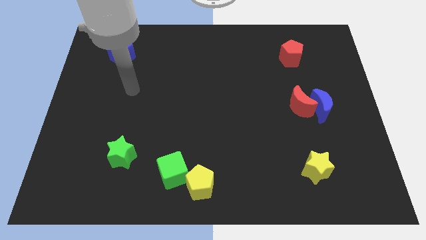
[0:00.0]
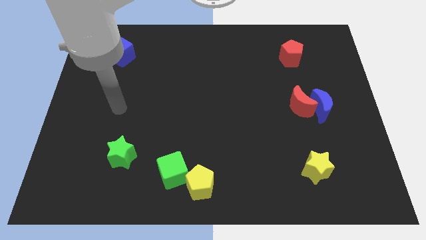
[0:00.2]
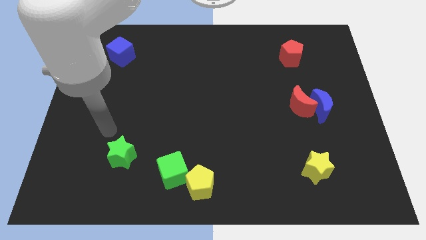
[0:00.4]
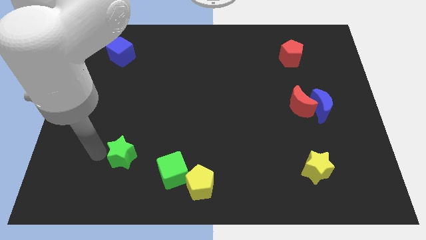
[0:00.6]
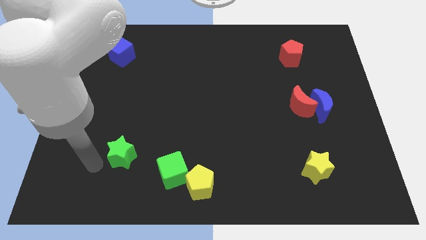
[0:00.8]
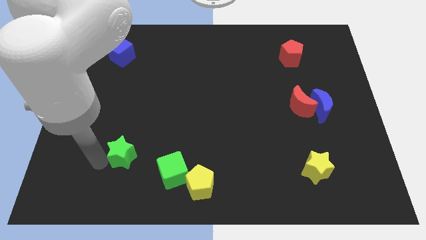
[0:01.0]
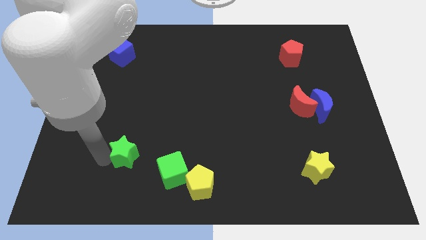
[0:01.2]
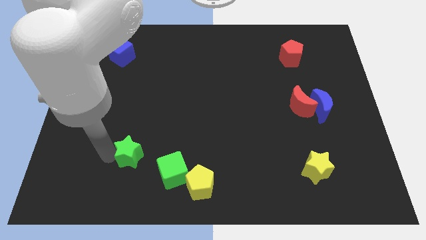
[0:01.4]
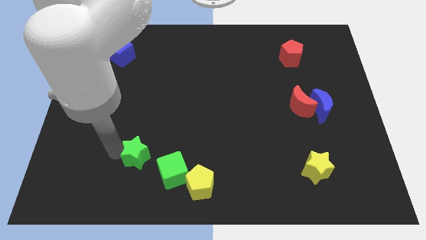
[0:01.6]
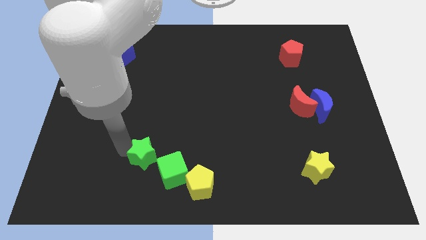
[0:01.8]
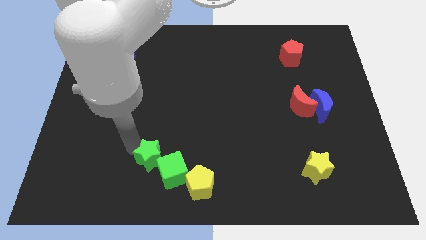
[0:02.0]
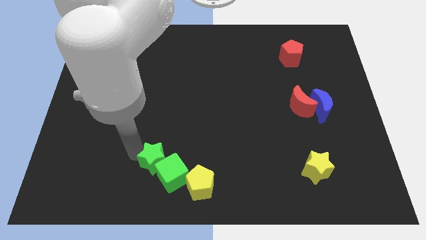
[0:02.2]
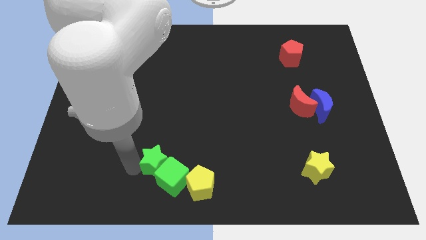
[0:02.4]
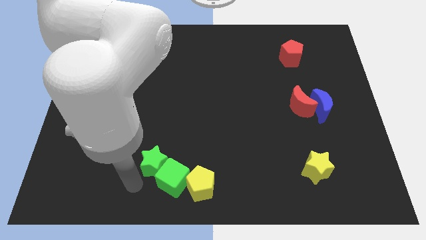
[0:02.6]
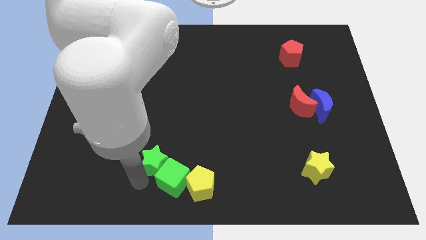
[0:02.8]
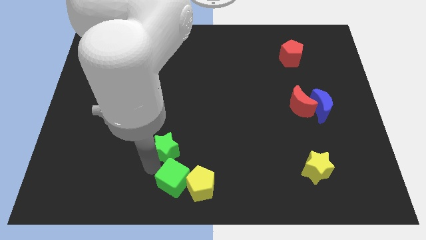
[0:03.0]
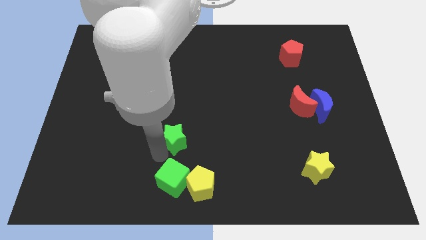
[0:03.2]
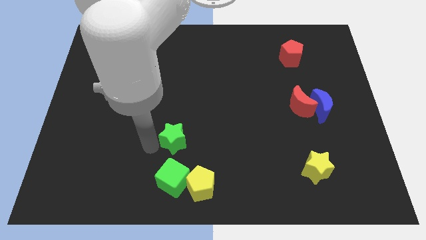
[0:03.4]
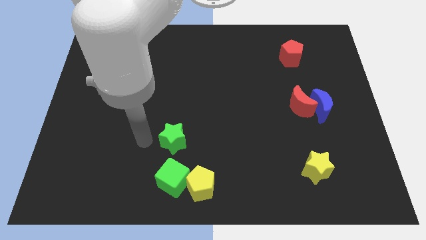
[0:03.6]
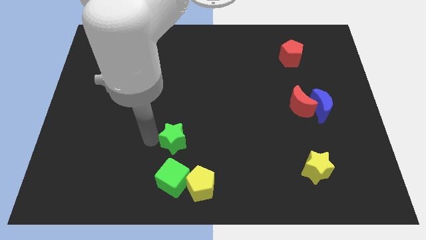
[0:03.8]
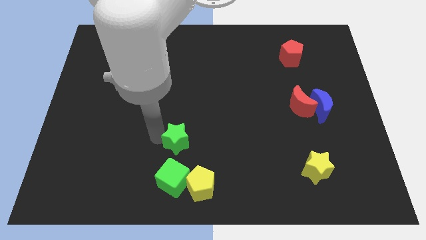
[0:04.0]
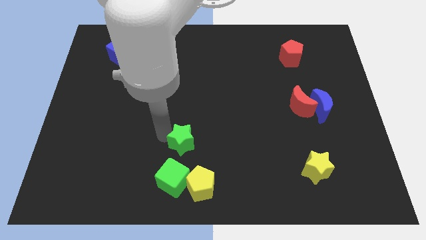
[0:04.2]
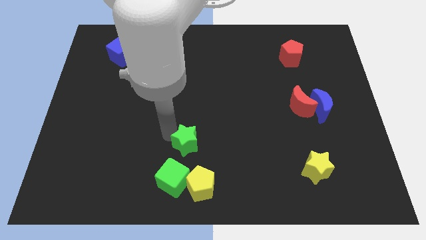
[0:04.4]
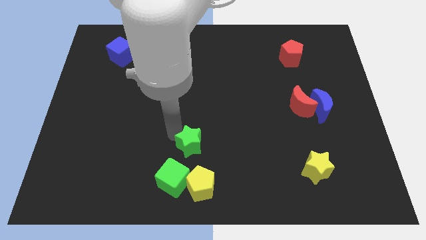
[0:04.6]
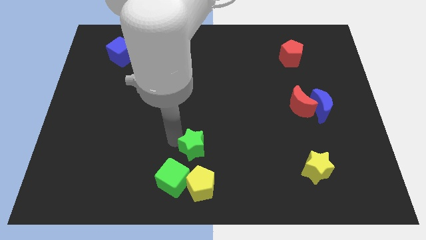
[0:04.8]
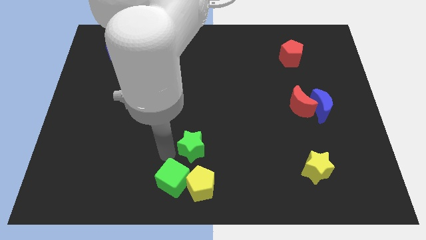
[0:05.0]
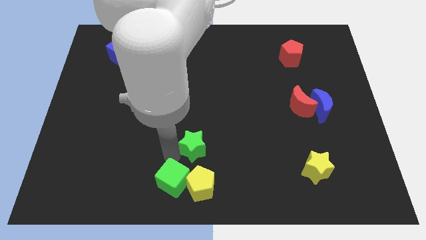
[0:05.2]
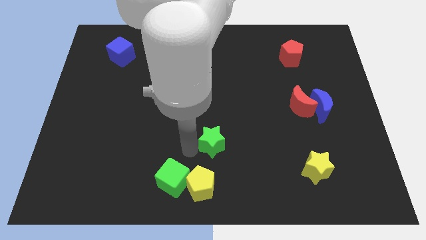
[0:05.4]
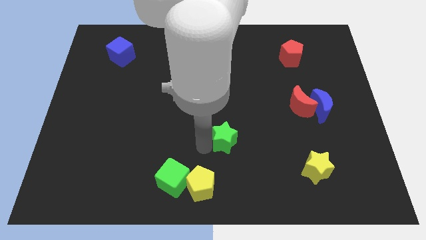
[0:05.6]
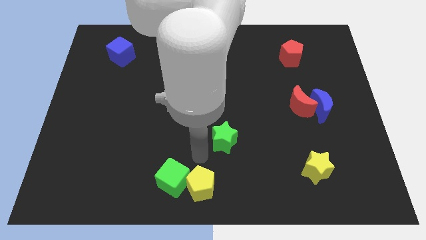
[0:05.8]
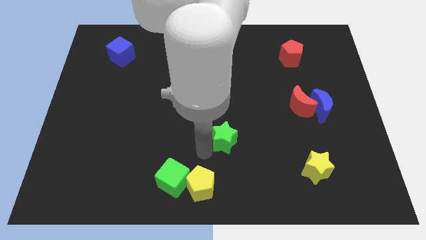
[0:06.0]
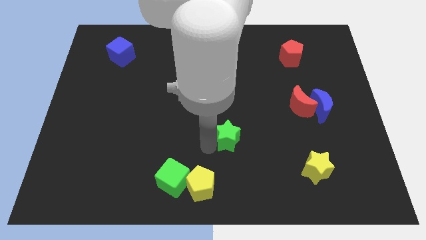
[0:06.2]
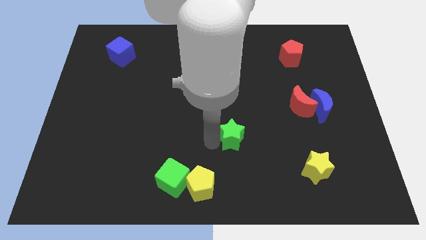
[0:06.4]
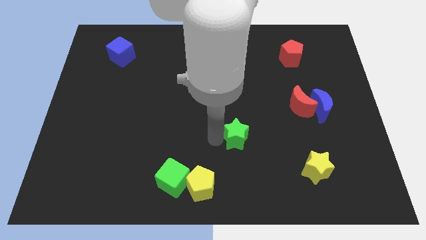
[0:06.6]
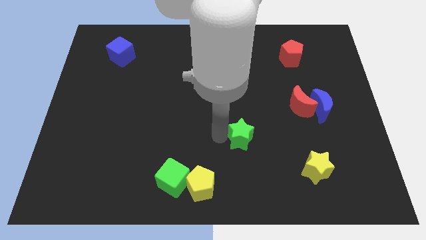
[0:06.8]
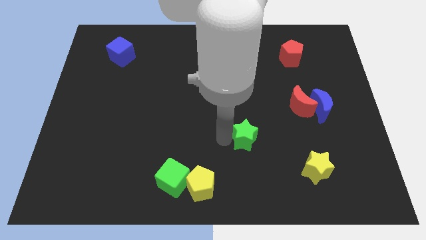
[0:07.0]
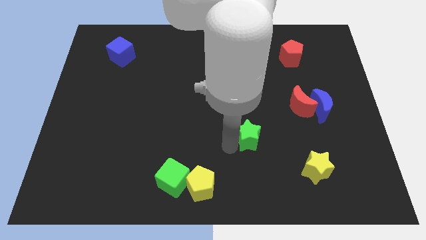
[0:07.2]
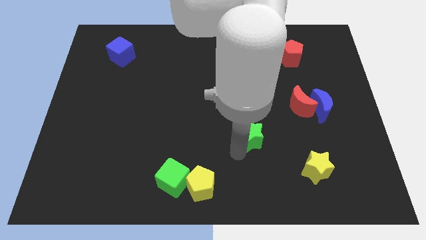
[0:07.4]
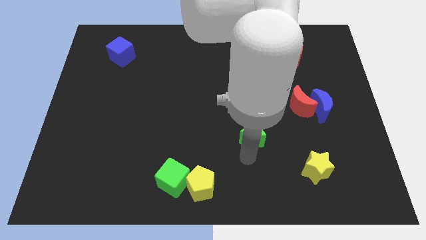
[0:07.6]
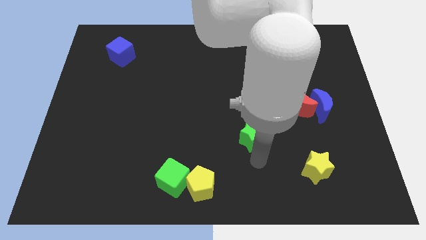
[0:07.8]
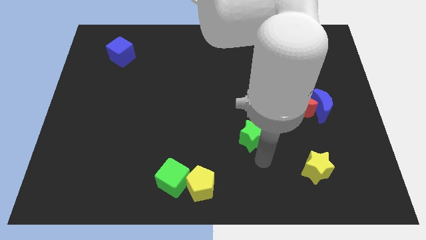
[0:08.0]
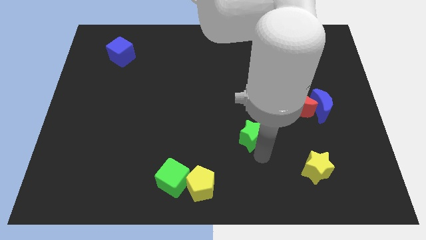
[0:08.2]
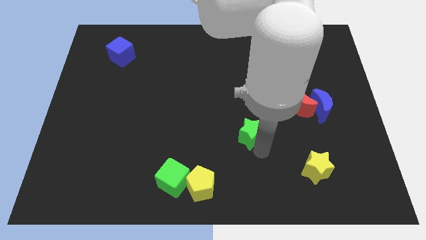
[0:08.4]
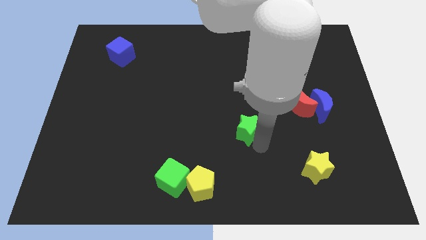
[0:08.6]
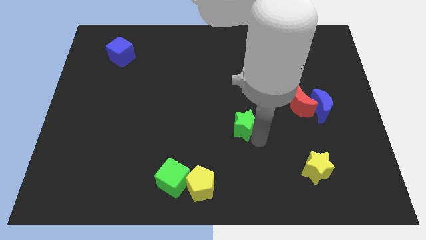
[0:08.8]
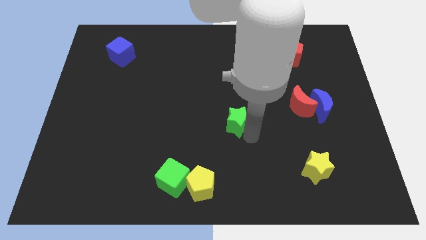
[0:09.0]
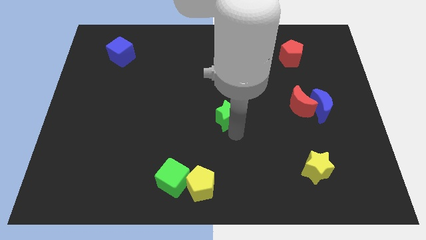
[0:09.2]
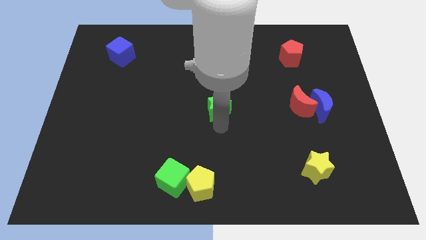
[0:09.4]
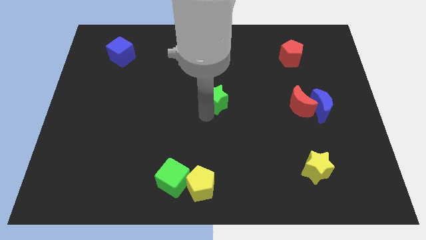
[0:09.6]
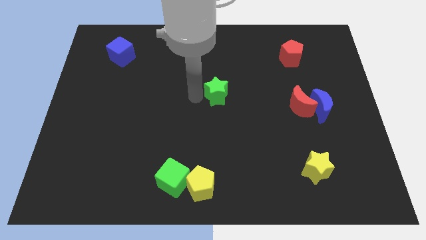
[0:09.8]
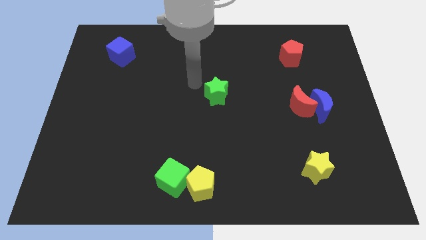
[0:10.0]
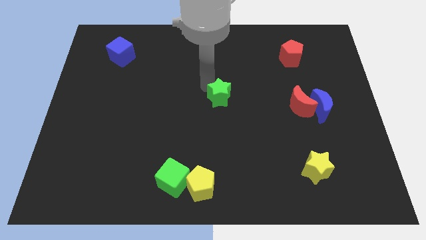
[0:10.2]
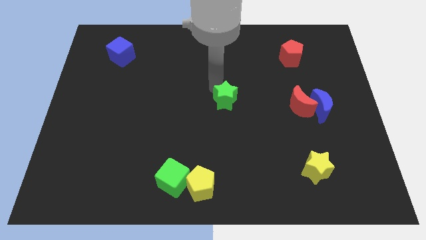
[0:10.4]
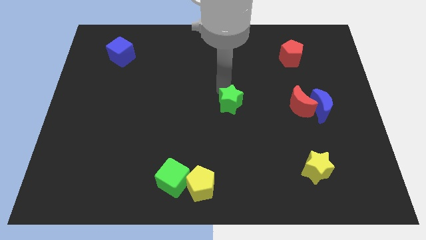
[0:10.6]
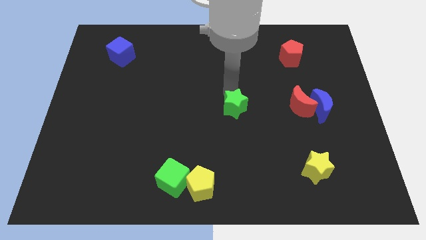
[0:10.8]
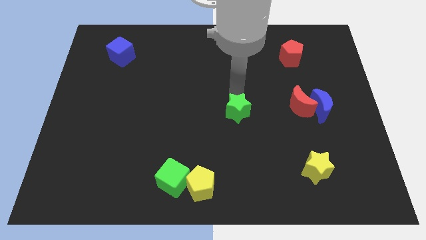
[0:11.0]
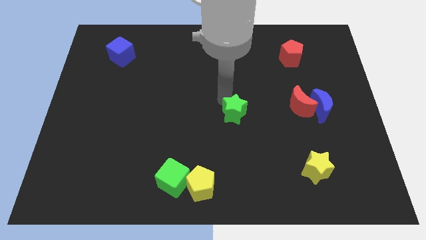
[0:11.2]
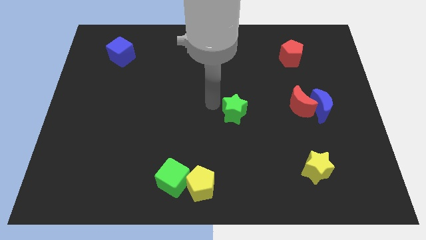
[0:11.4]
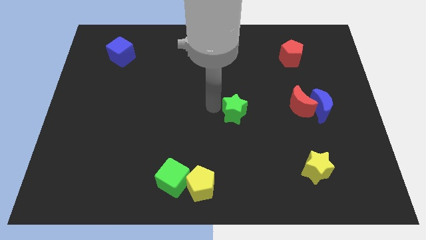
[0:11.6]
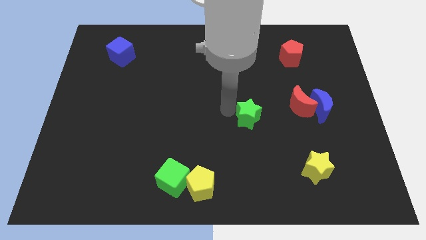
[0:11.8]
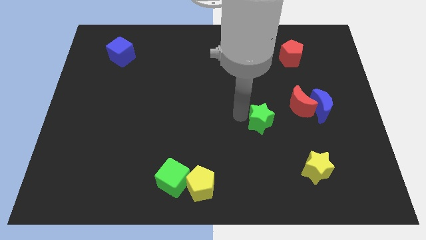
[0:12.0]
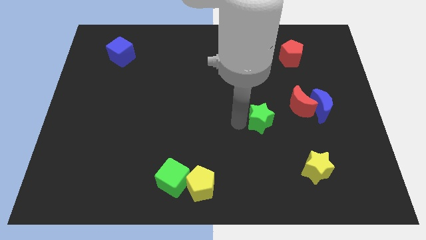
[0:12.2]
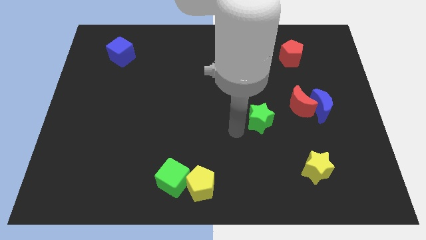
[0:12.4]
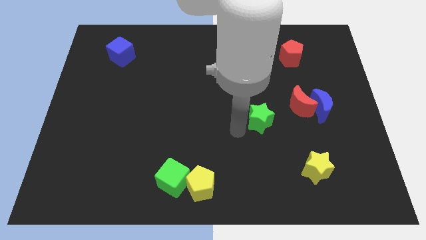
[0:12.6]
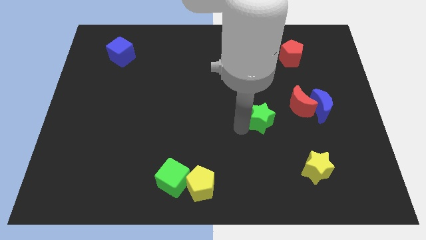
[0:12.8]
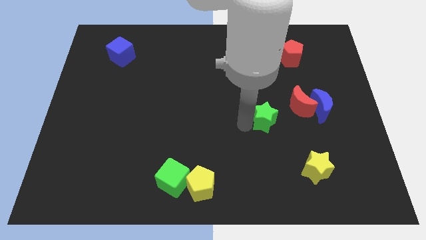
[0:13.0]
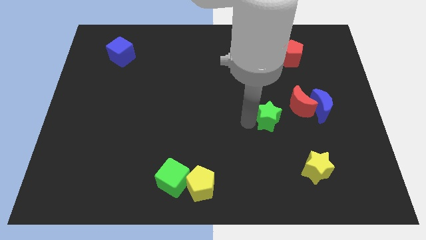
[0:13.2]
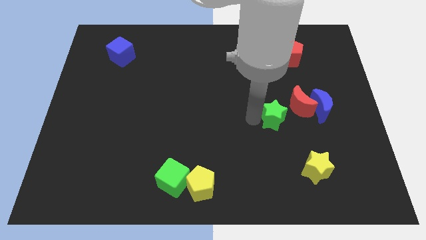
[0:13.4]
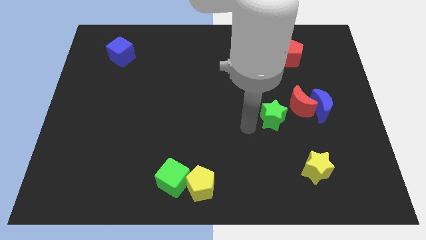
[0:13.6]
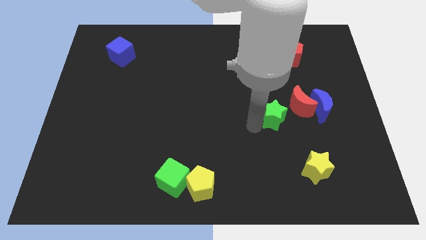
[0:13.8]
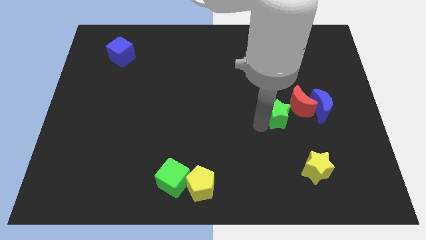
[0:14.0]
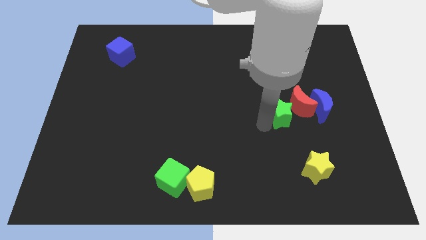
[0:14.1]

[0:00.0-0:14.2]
move the green star towards the red moon

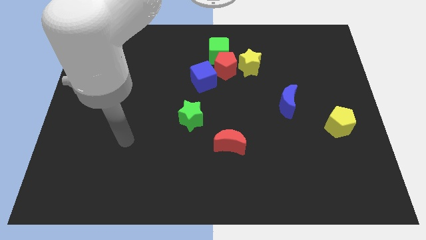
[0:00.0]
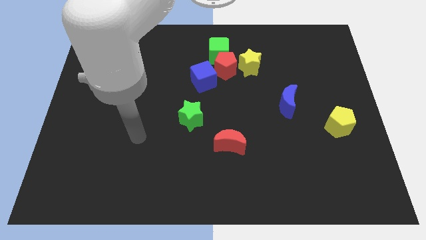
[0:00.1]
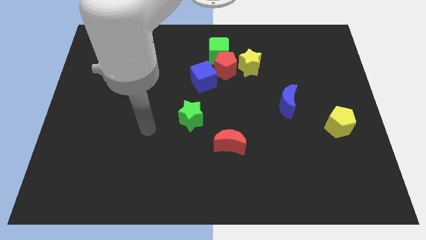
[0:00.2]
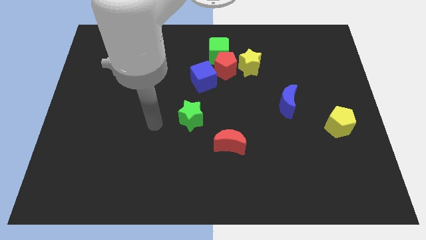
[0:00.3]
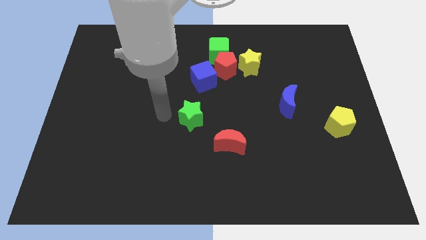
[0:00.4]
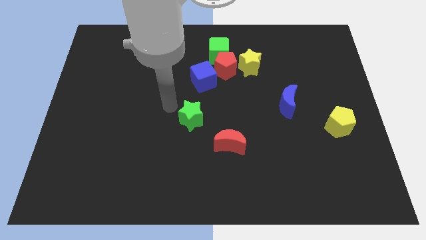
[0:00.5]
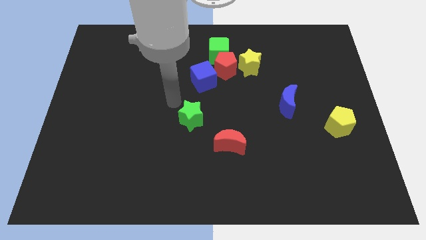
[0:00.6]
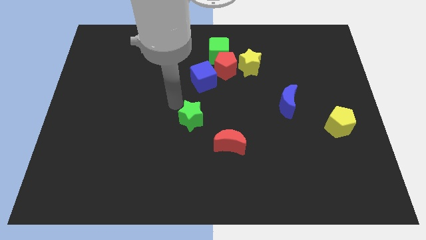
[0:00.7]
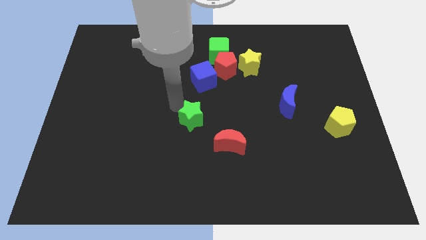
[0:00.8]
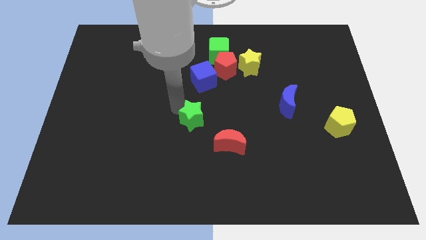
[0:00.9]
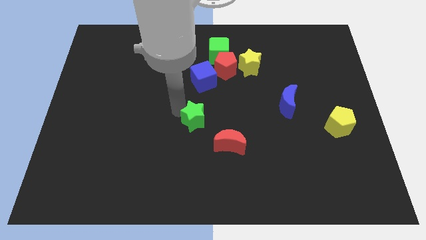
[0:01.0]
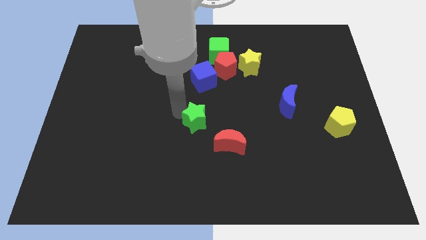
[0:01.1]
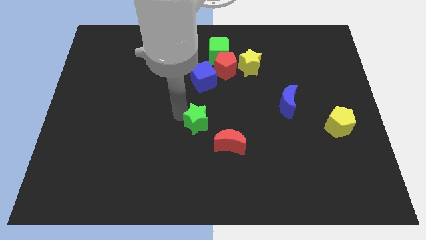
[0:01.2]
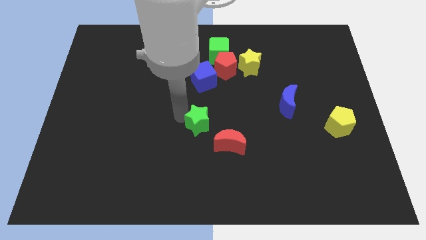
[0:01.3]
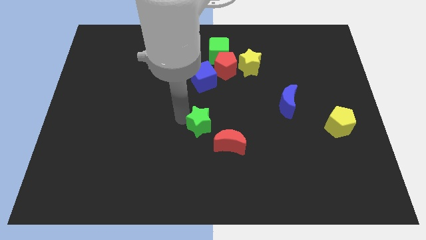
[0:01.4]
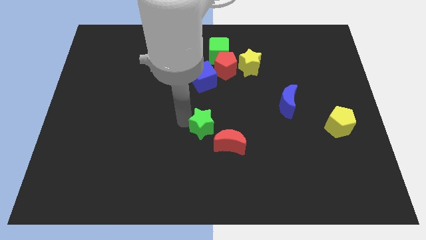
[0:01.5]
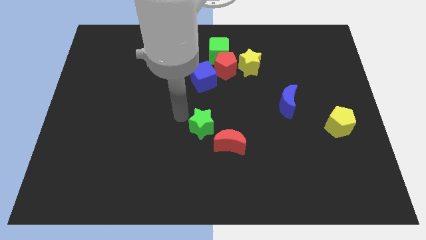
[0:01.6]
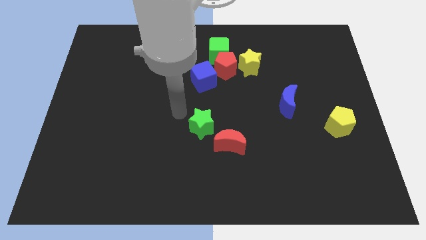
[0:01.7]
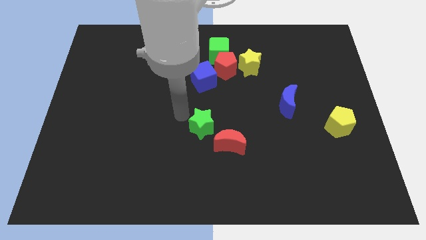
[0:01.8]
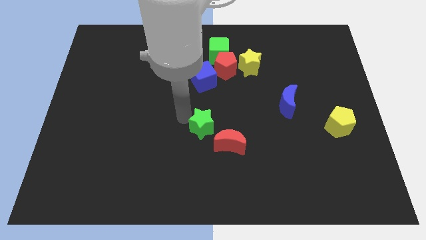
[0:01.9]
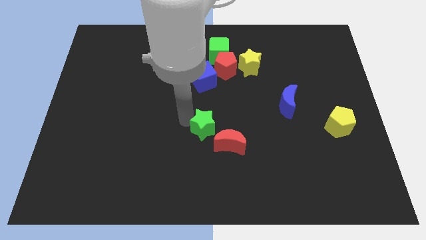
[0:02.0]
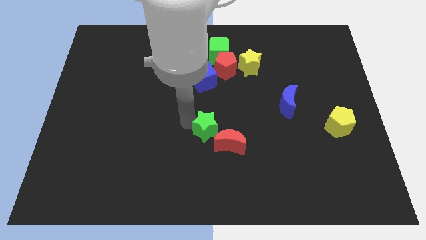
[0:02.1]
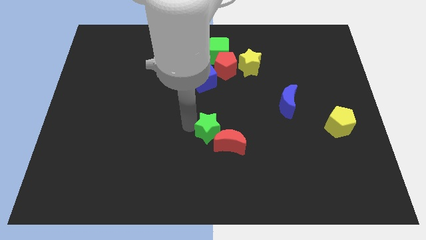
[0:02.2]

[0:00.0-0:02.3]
push the green star next to the red moon
